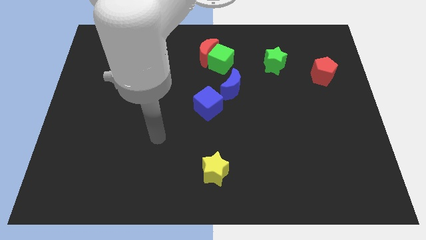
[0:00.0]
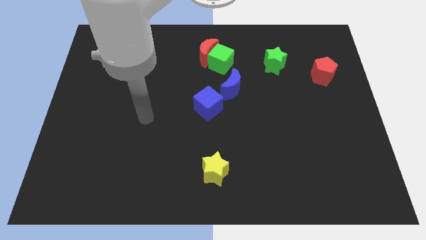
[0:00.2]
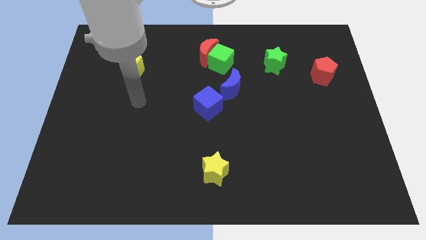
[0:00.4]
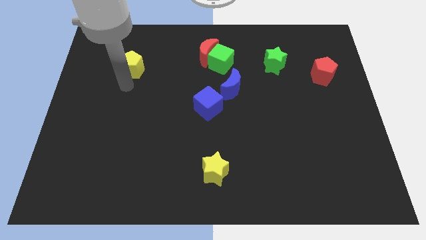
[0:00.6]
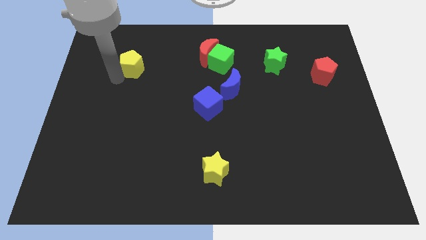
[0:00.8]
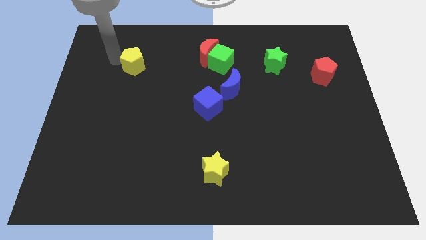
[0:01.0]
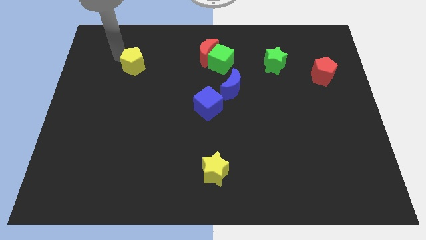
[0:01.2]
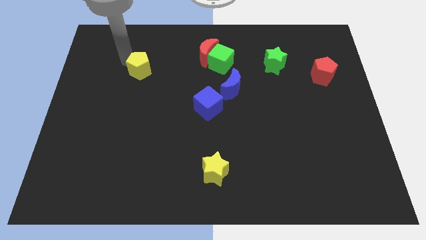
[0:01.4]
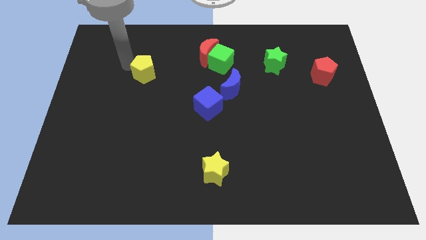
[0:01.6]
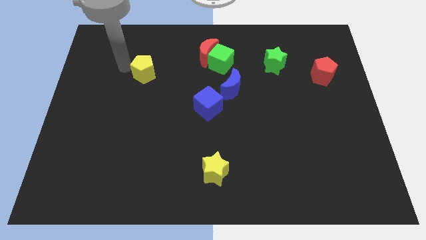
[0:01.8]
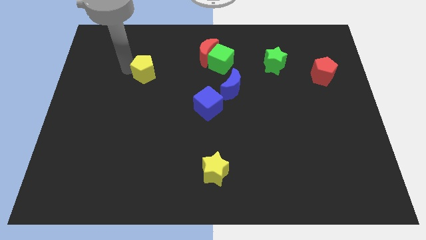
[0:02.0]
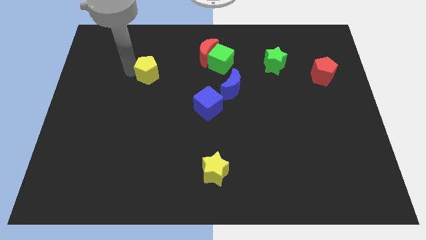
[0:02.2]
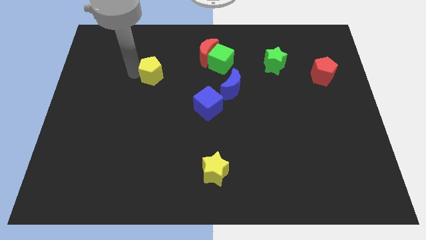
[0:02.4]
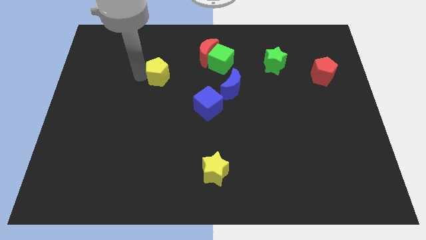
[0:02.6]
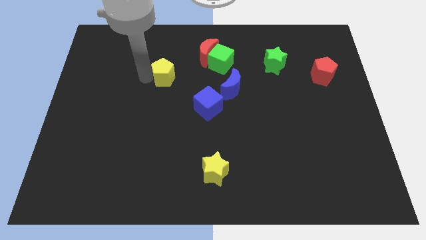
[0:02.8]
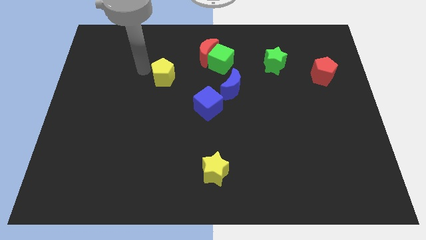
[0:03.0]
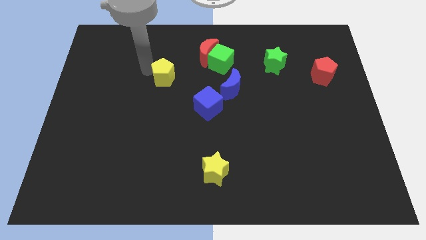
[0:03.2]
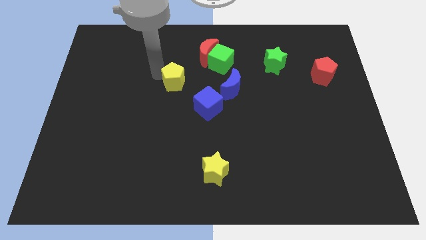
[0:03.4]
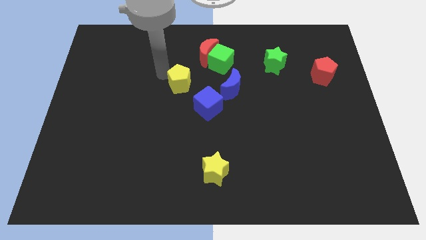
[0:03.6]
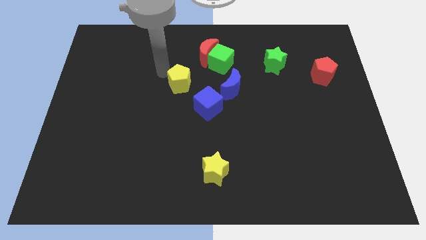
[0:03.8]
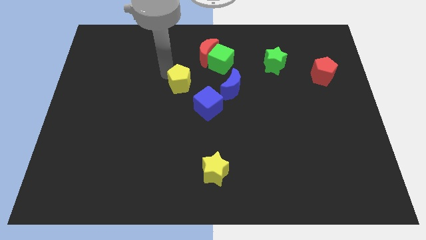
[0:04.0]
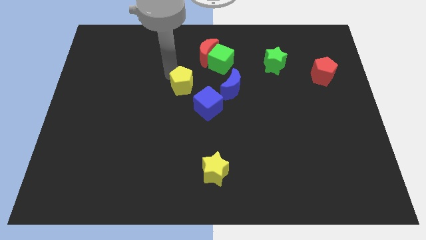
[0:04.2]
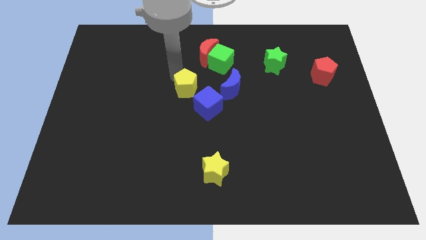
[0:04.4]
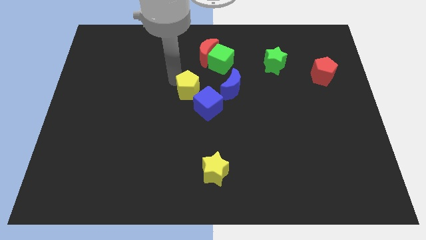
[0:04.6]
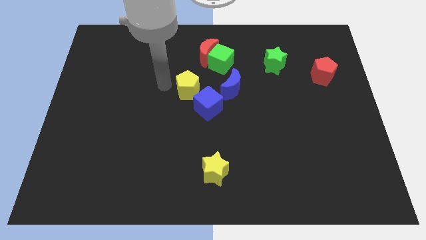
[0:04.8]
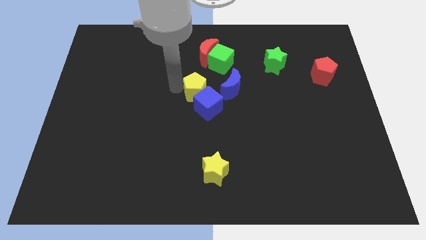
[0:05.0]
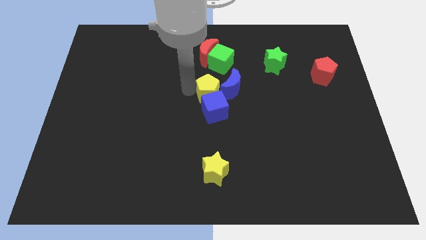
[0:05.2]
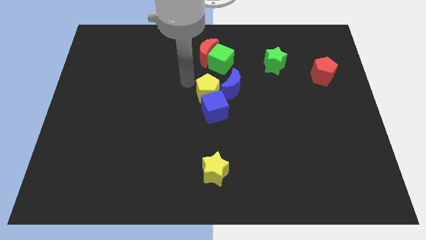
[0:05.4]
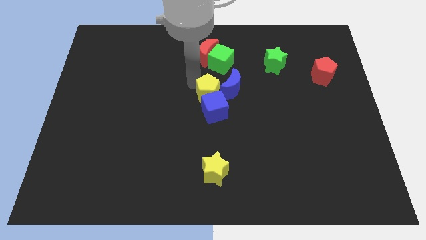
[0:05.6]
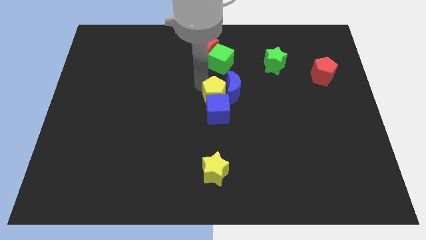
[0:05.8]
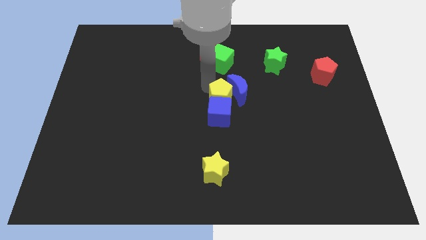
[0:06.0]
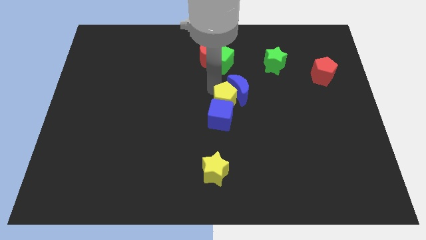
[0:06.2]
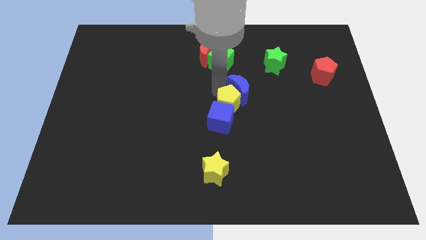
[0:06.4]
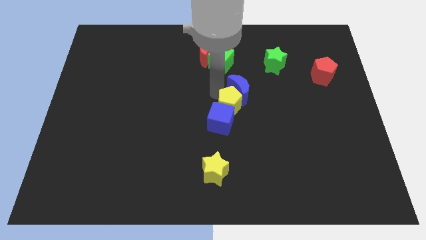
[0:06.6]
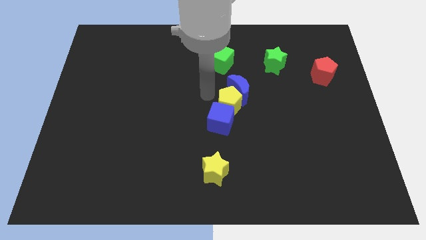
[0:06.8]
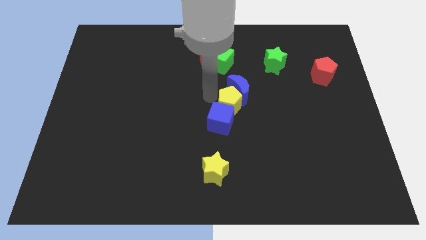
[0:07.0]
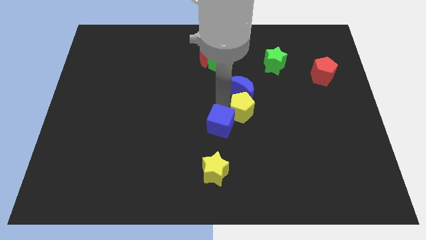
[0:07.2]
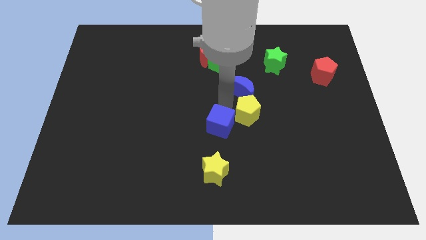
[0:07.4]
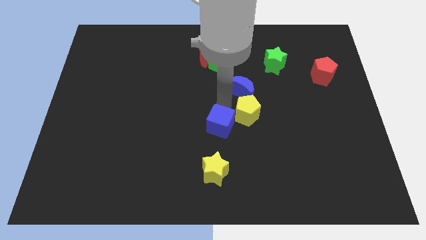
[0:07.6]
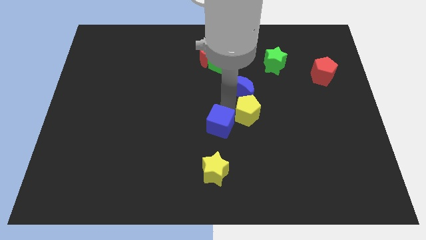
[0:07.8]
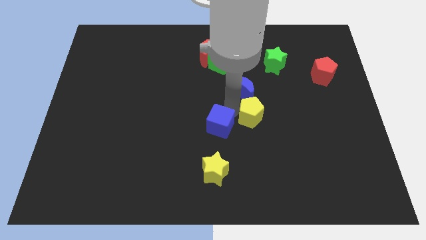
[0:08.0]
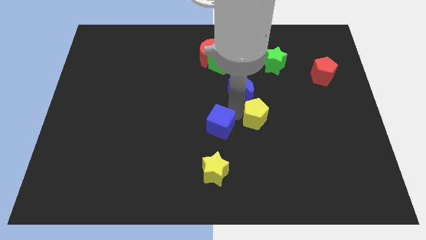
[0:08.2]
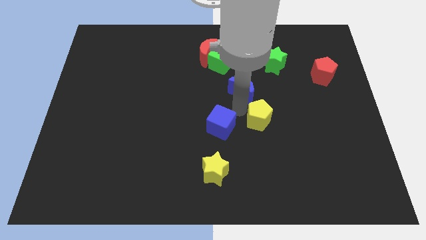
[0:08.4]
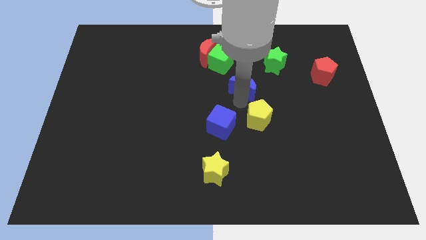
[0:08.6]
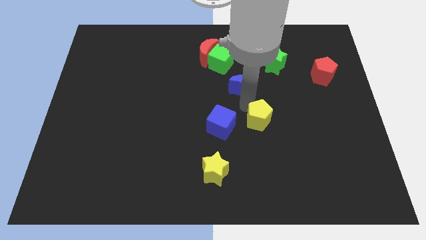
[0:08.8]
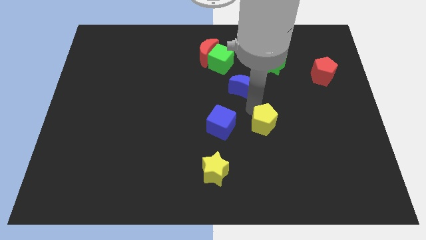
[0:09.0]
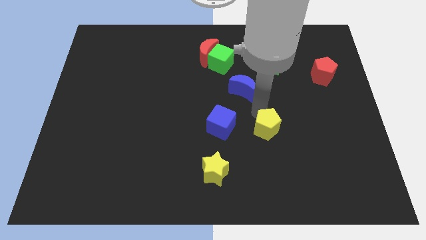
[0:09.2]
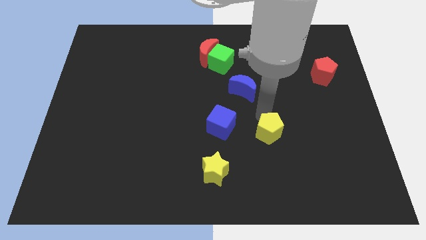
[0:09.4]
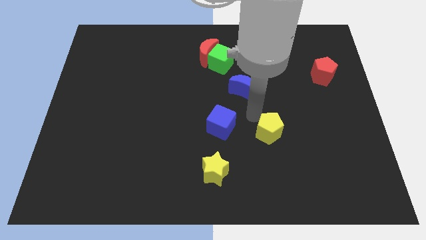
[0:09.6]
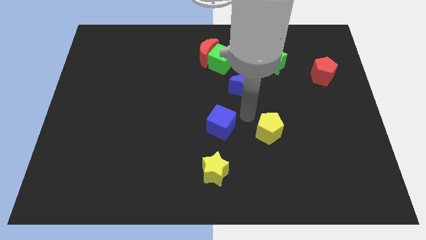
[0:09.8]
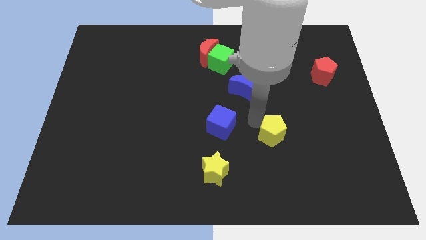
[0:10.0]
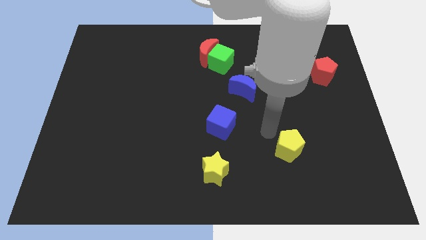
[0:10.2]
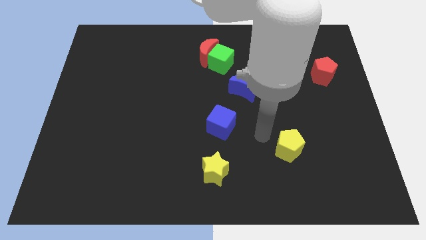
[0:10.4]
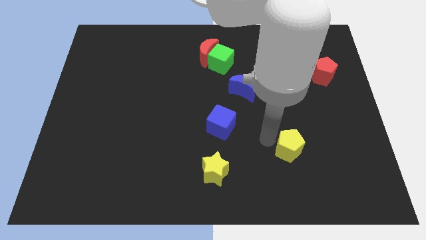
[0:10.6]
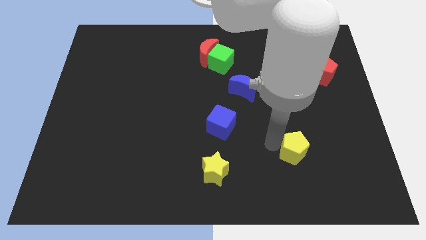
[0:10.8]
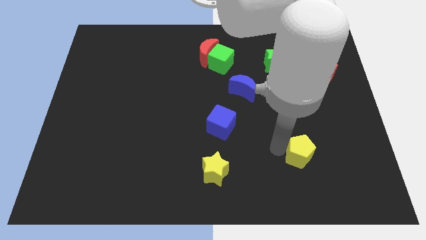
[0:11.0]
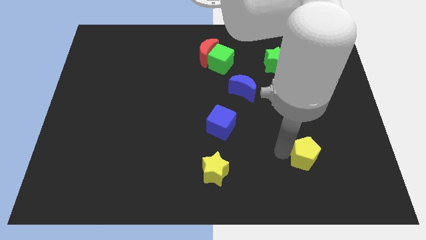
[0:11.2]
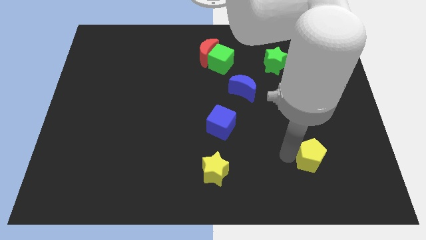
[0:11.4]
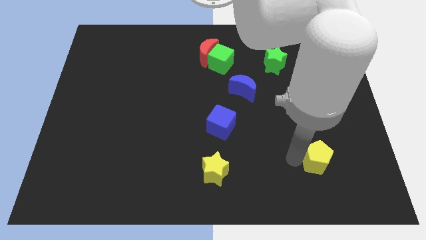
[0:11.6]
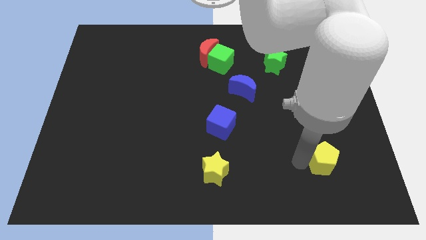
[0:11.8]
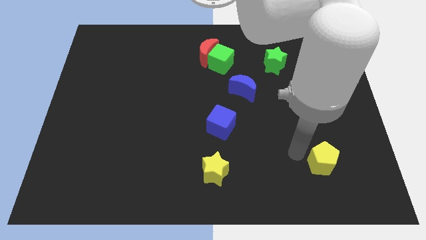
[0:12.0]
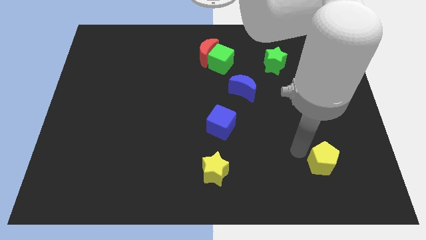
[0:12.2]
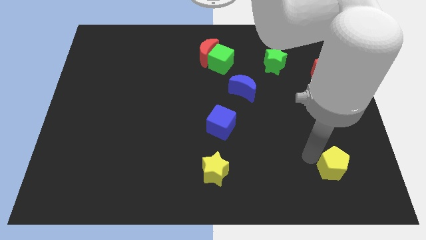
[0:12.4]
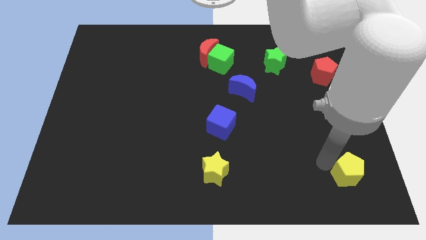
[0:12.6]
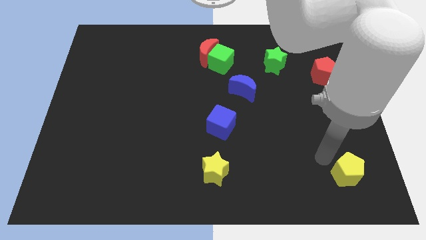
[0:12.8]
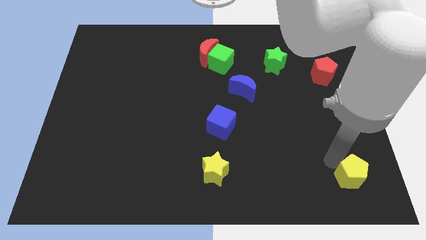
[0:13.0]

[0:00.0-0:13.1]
put the yellow pentagon to the bottom right corner
